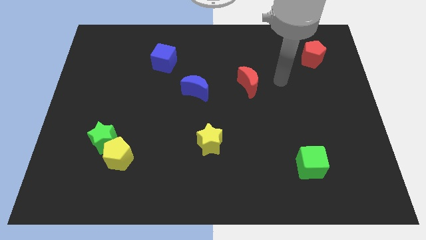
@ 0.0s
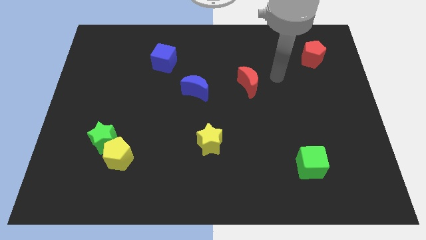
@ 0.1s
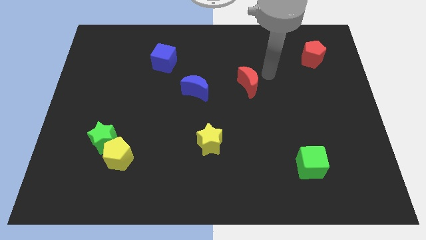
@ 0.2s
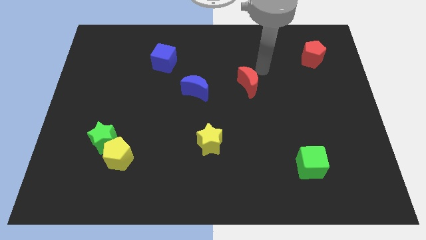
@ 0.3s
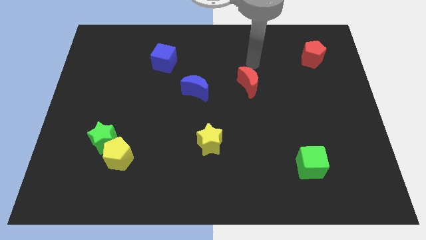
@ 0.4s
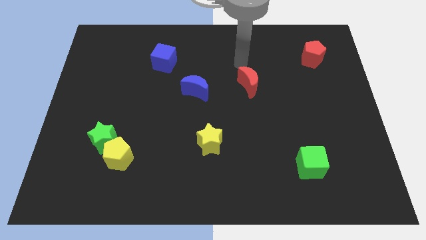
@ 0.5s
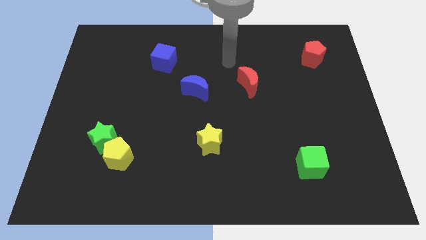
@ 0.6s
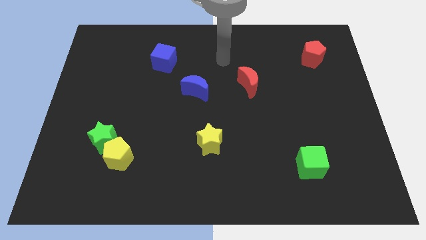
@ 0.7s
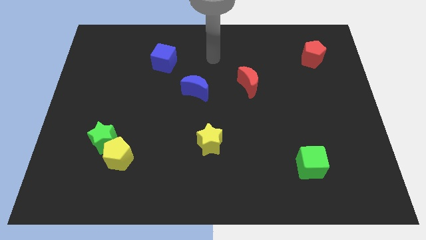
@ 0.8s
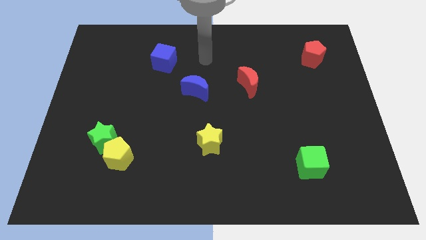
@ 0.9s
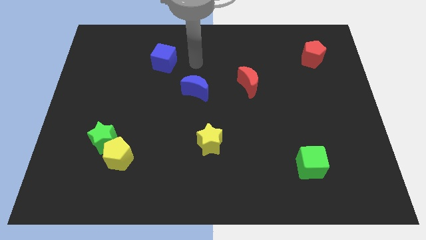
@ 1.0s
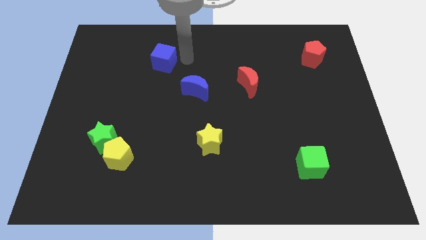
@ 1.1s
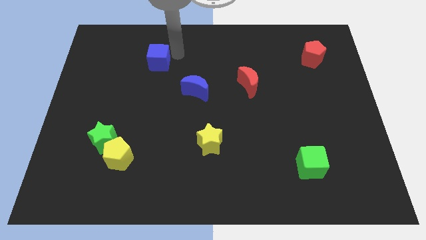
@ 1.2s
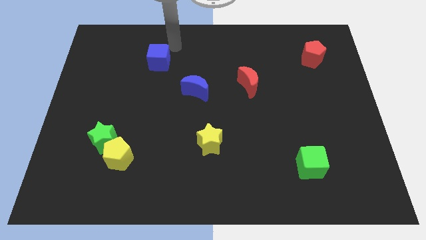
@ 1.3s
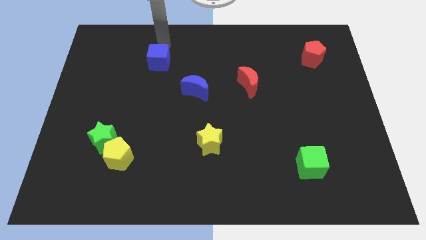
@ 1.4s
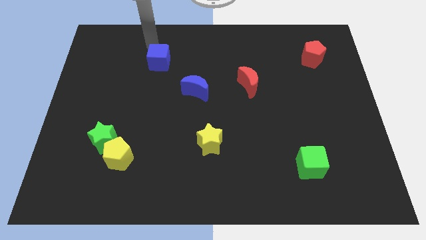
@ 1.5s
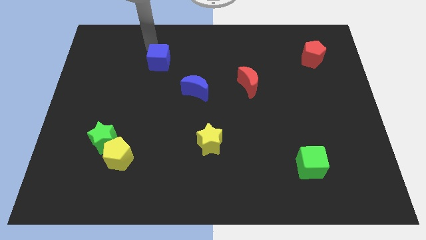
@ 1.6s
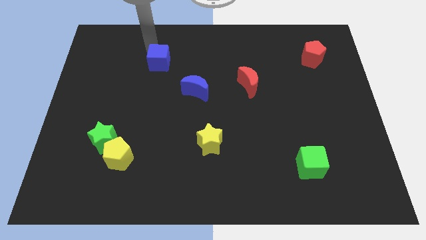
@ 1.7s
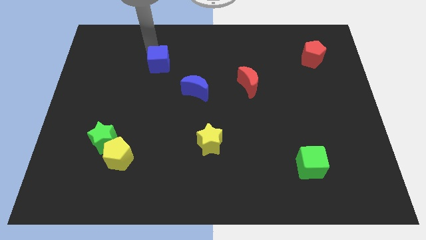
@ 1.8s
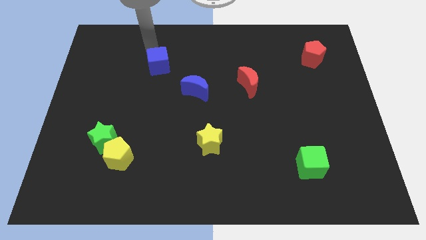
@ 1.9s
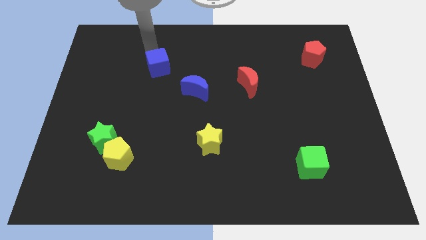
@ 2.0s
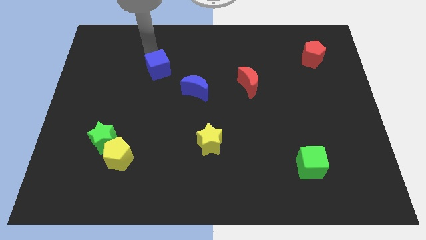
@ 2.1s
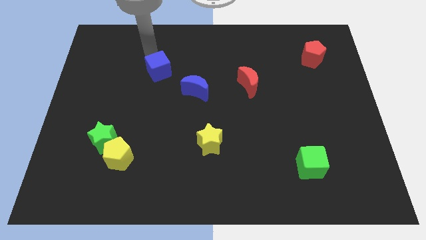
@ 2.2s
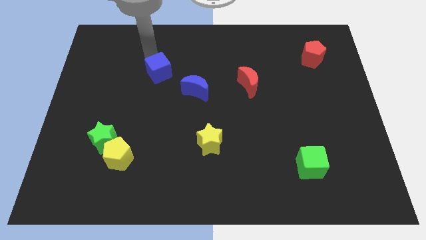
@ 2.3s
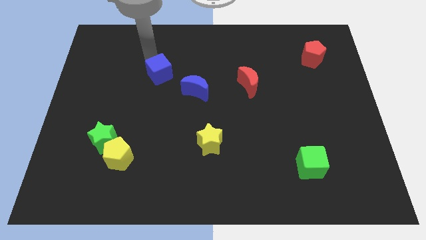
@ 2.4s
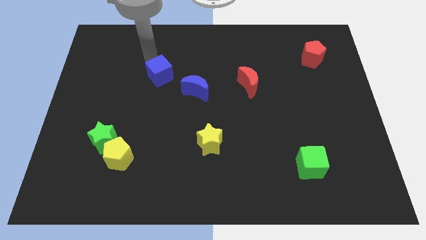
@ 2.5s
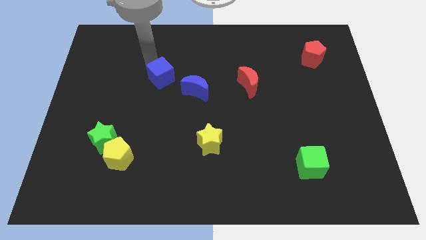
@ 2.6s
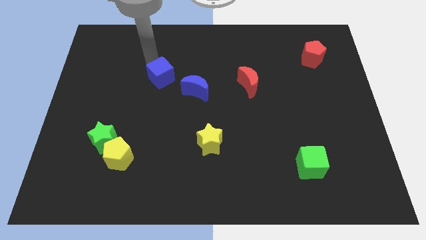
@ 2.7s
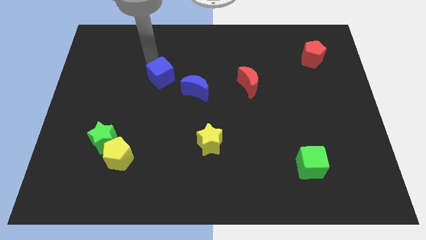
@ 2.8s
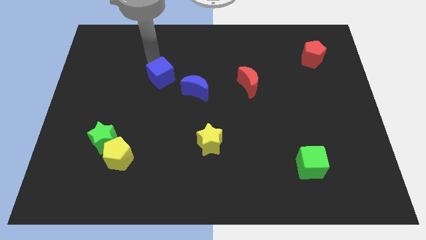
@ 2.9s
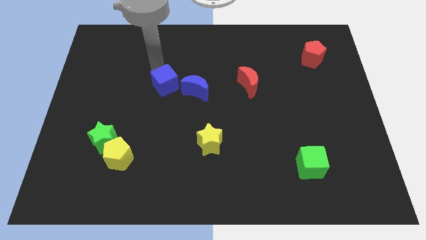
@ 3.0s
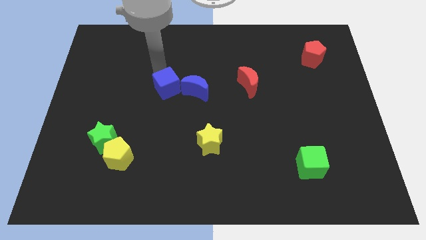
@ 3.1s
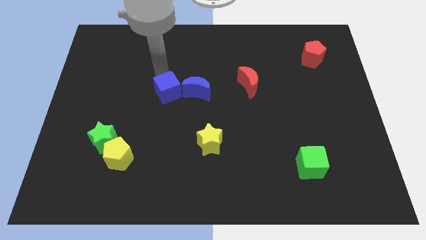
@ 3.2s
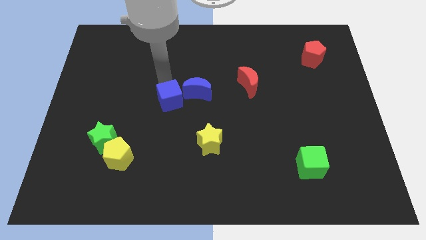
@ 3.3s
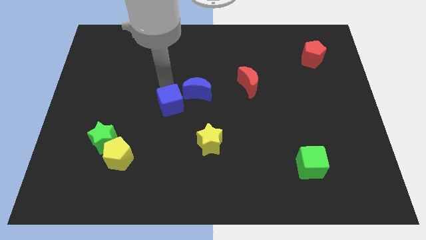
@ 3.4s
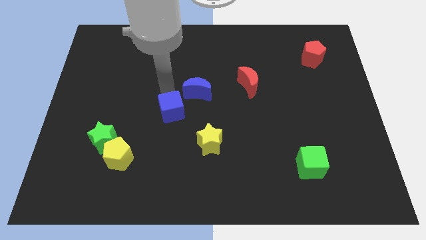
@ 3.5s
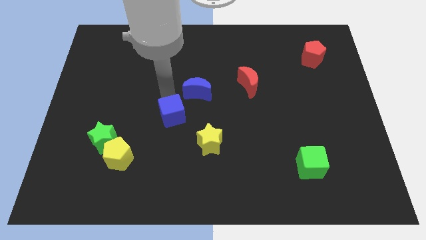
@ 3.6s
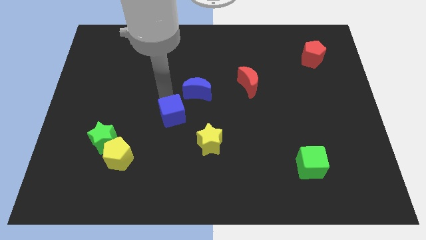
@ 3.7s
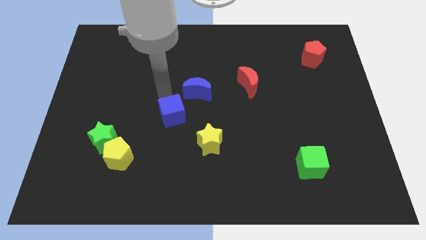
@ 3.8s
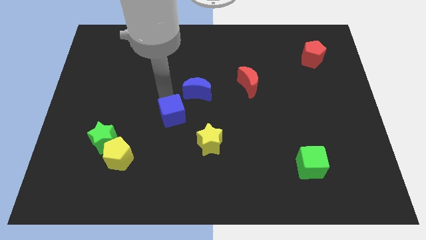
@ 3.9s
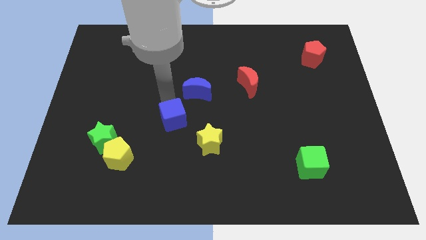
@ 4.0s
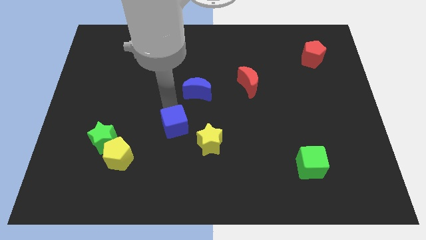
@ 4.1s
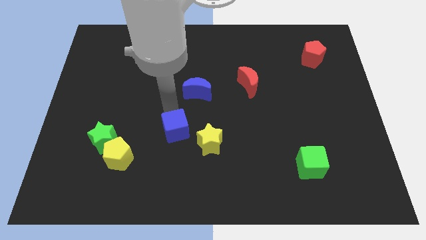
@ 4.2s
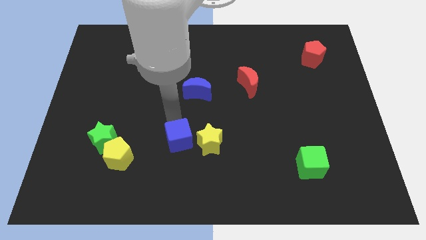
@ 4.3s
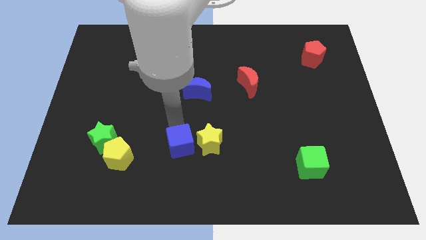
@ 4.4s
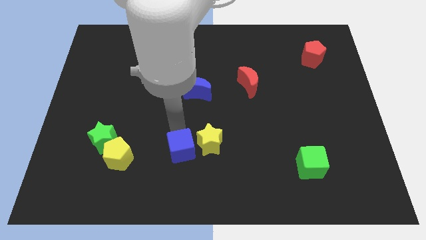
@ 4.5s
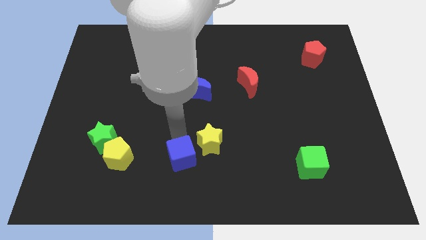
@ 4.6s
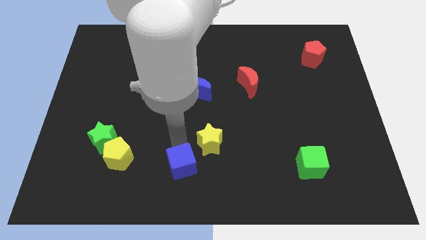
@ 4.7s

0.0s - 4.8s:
slide the blue cube to the bottom side

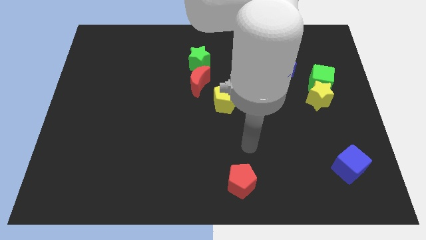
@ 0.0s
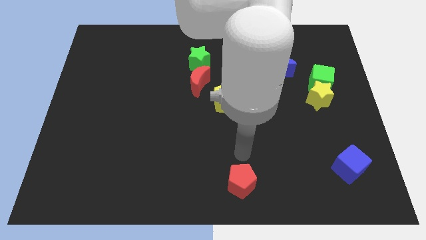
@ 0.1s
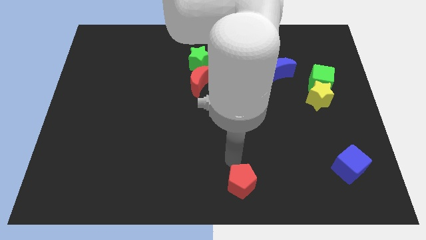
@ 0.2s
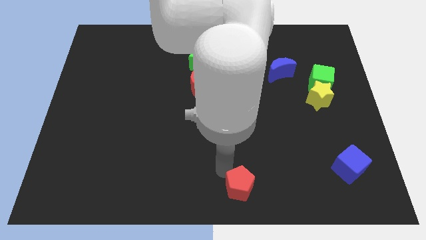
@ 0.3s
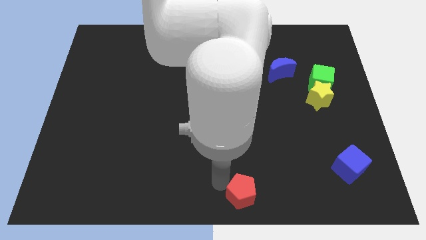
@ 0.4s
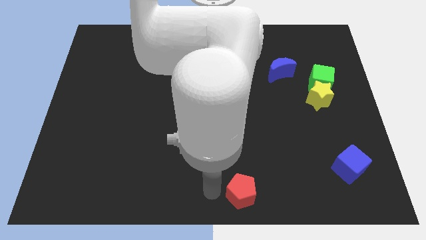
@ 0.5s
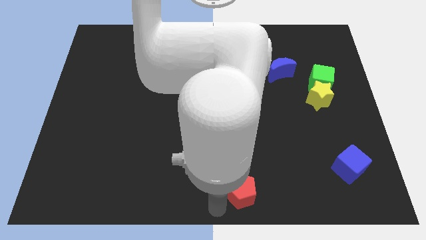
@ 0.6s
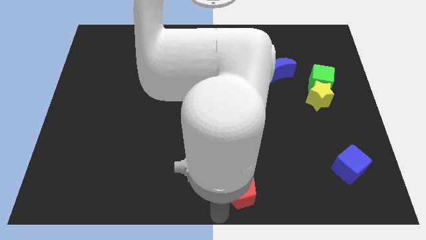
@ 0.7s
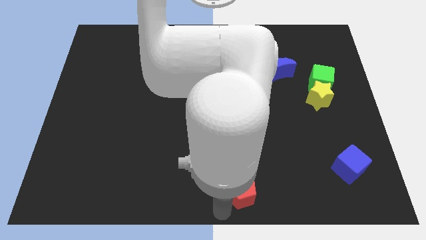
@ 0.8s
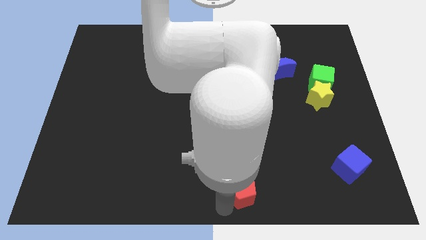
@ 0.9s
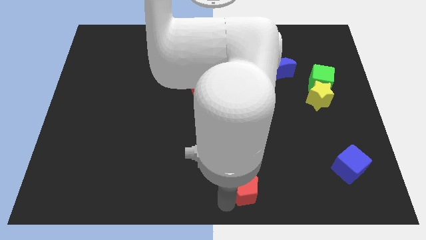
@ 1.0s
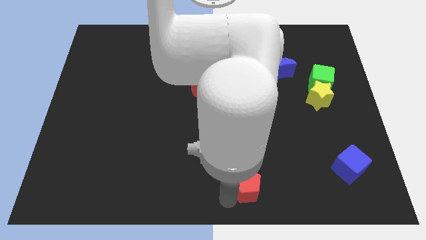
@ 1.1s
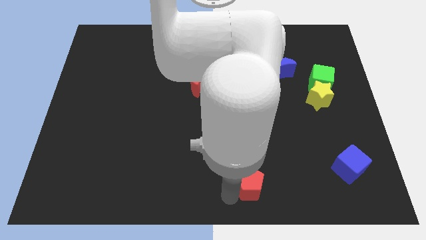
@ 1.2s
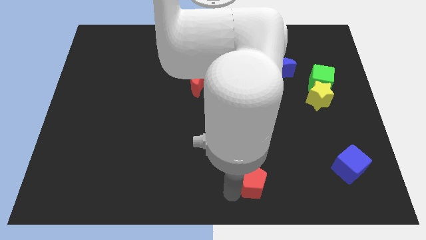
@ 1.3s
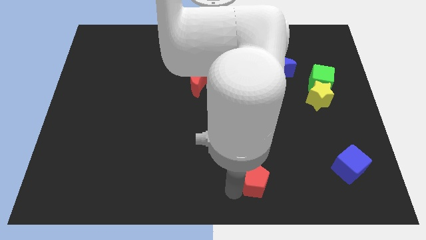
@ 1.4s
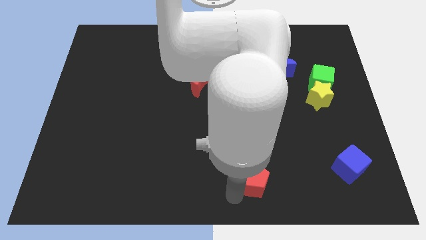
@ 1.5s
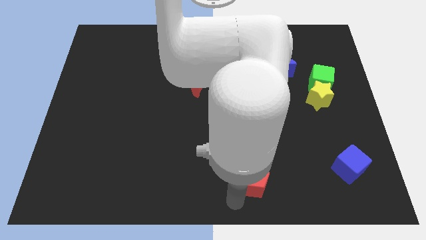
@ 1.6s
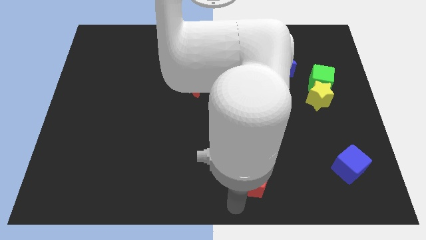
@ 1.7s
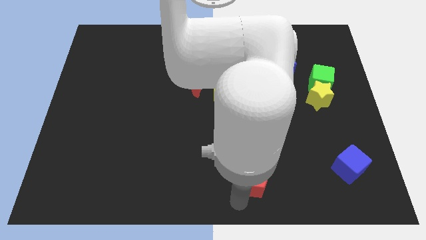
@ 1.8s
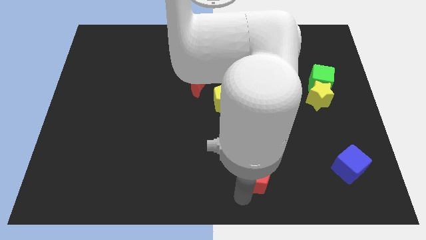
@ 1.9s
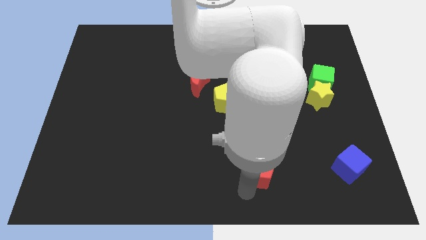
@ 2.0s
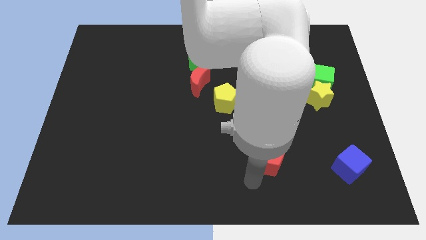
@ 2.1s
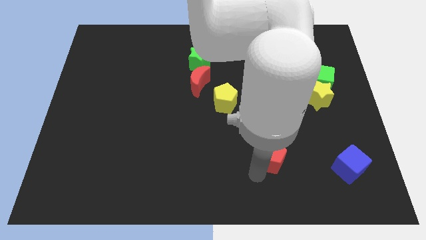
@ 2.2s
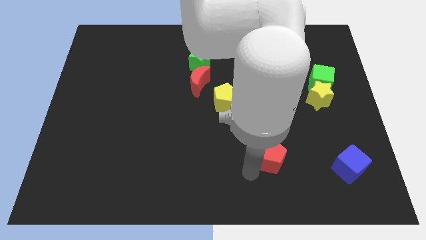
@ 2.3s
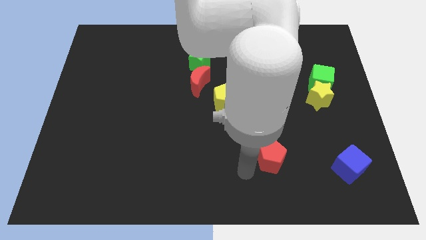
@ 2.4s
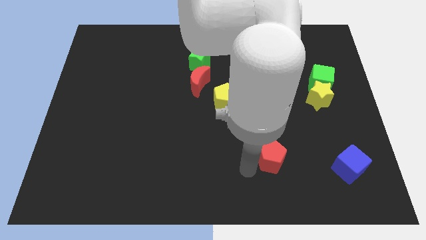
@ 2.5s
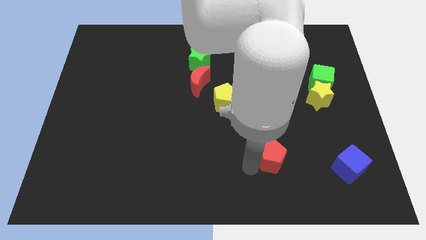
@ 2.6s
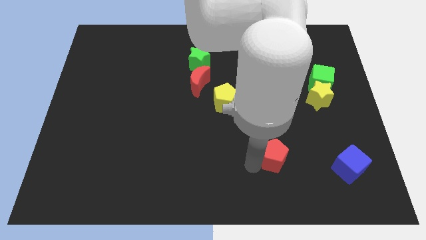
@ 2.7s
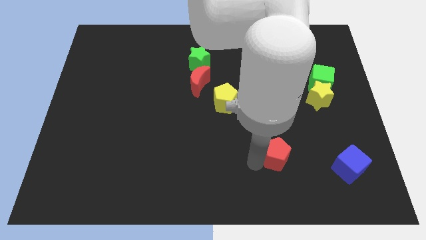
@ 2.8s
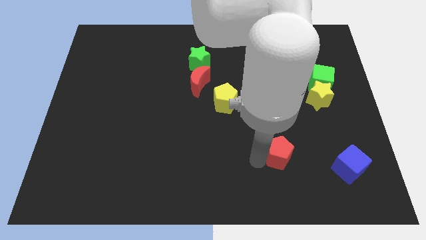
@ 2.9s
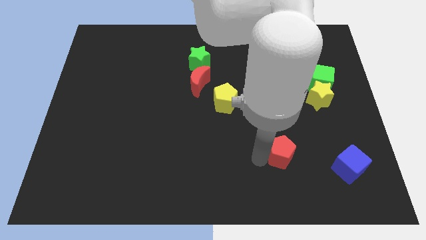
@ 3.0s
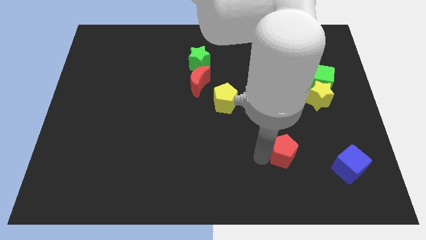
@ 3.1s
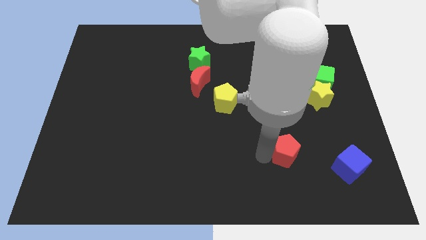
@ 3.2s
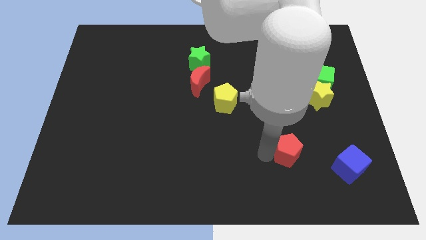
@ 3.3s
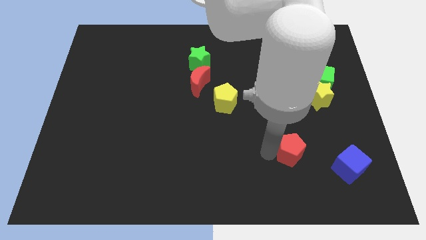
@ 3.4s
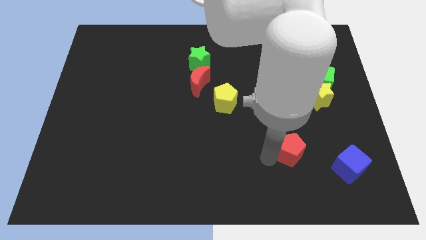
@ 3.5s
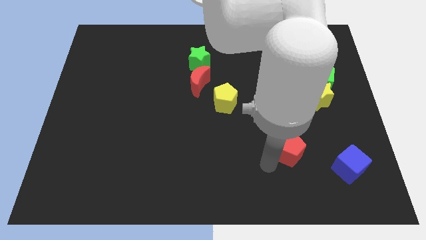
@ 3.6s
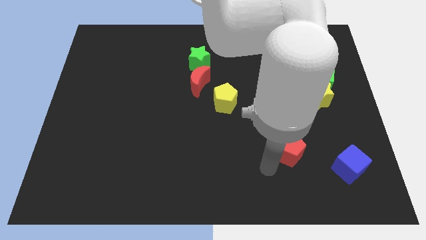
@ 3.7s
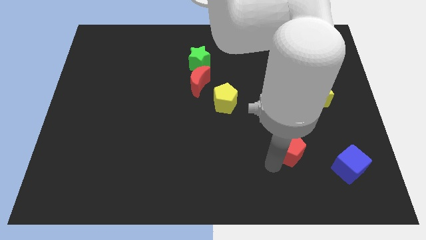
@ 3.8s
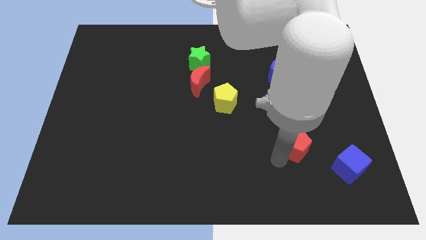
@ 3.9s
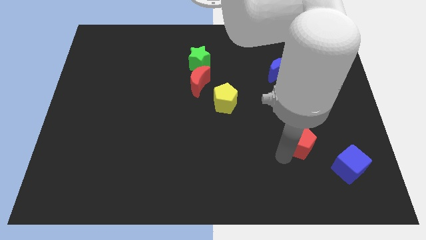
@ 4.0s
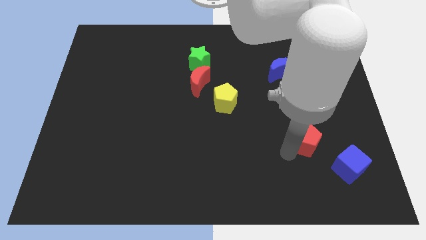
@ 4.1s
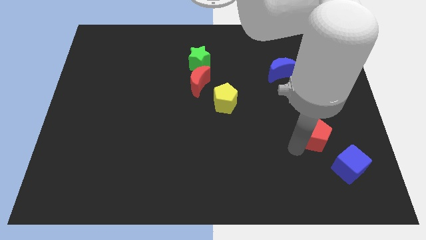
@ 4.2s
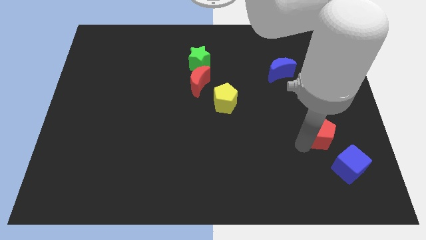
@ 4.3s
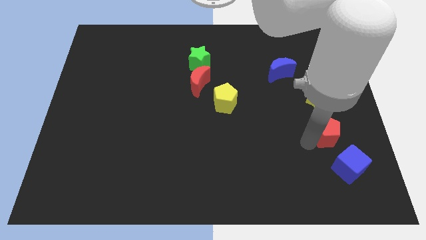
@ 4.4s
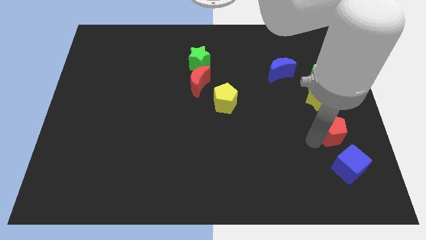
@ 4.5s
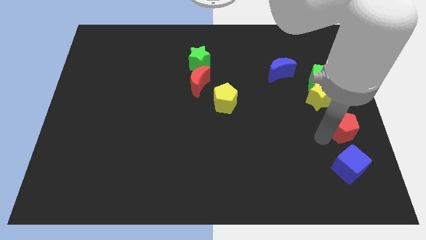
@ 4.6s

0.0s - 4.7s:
push the red pentagon to the right side
